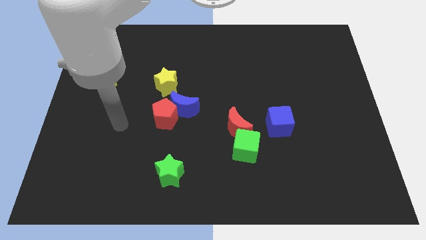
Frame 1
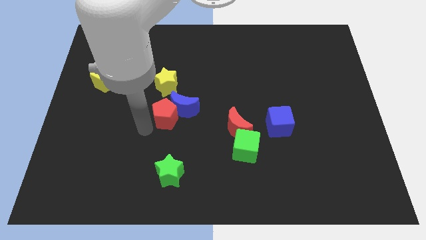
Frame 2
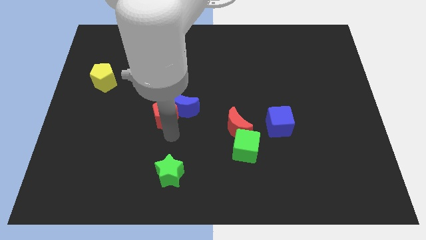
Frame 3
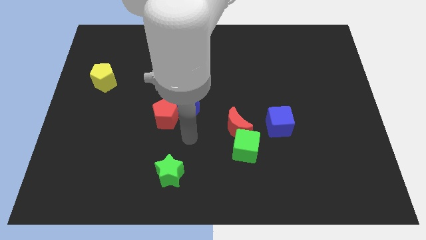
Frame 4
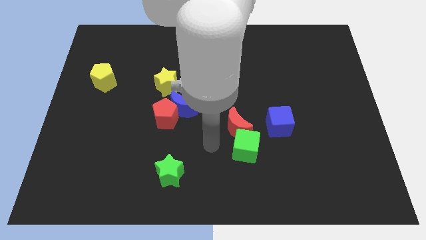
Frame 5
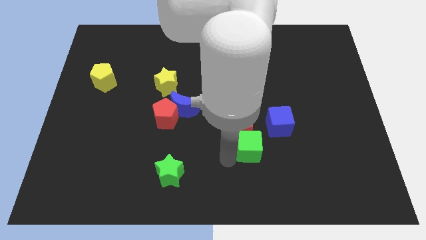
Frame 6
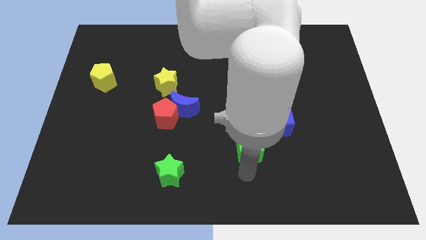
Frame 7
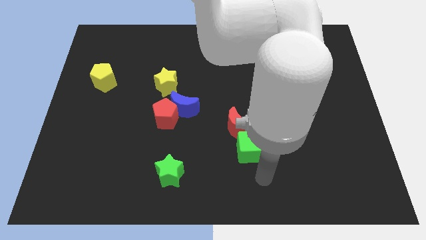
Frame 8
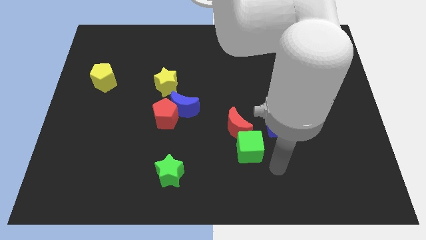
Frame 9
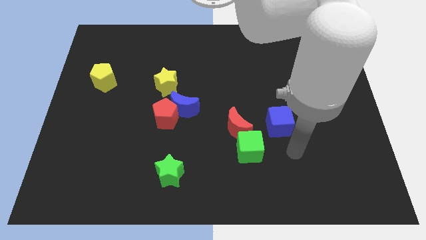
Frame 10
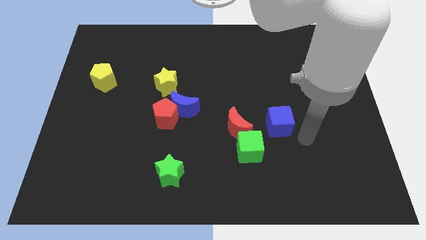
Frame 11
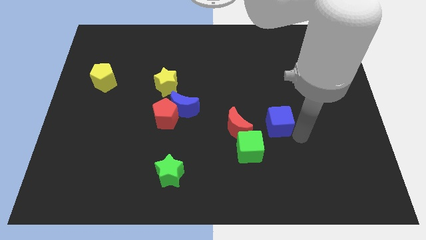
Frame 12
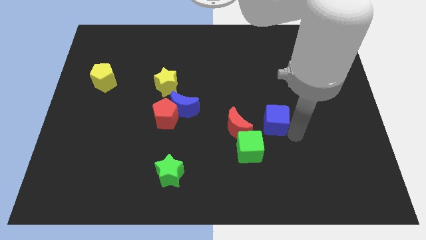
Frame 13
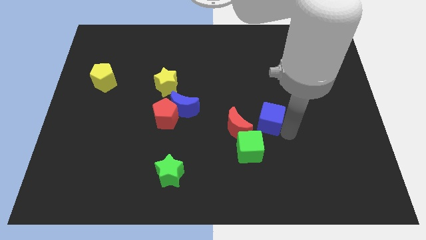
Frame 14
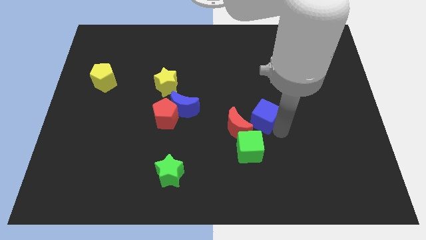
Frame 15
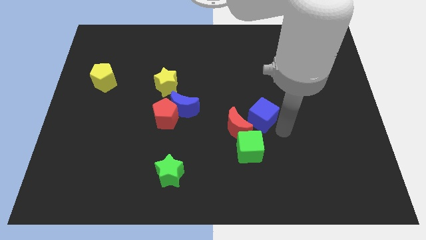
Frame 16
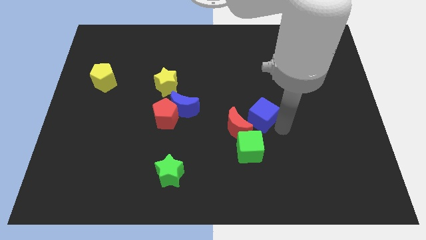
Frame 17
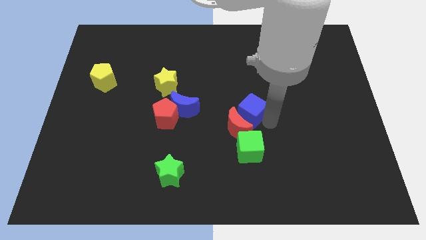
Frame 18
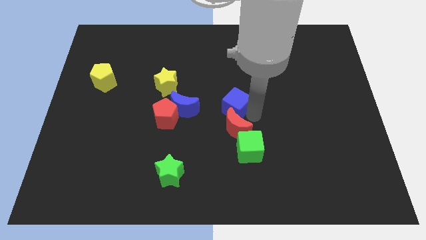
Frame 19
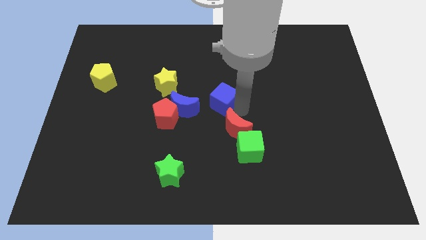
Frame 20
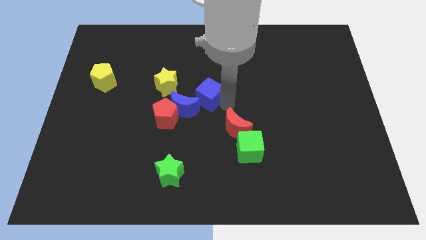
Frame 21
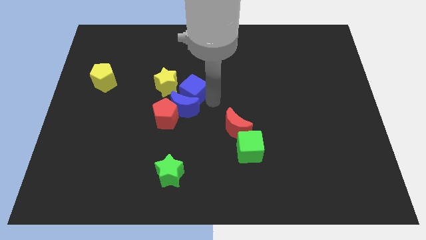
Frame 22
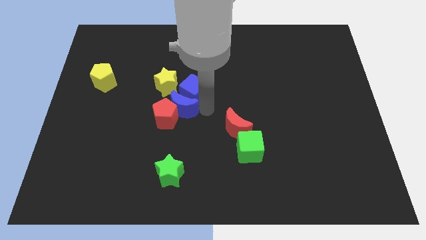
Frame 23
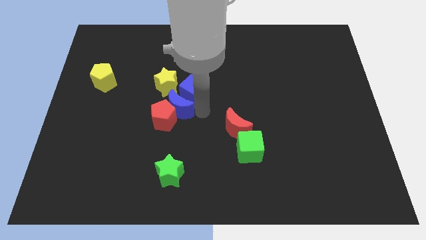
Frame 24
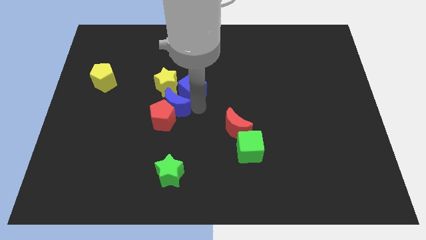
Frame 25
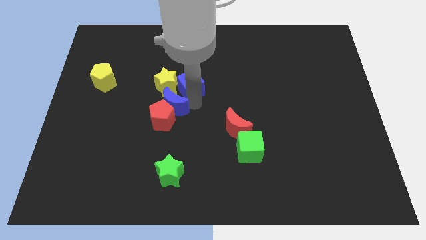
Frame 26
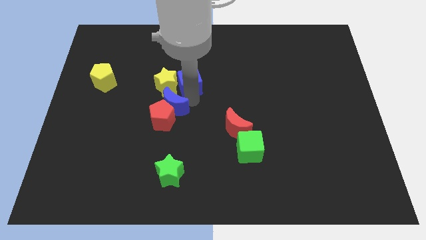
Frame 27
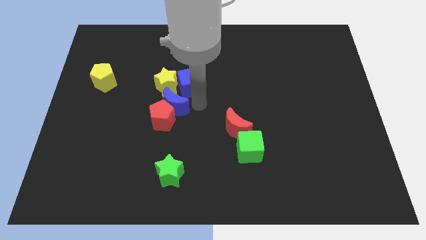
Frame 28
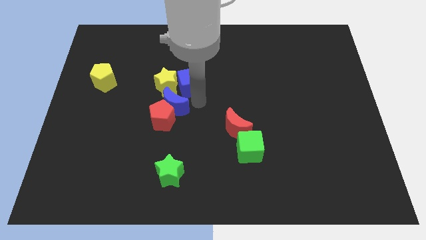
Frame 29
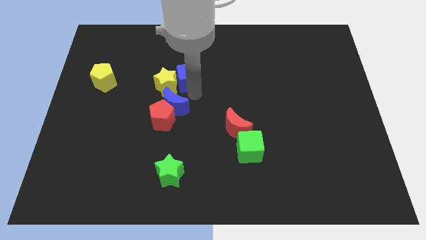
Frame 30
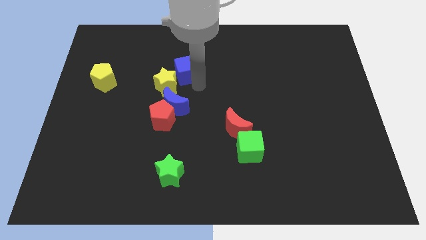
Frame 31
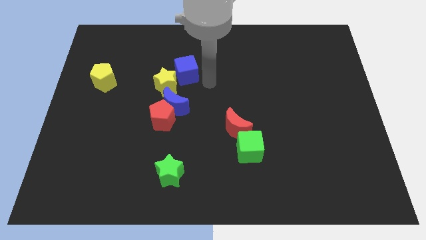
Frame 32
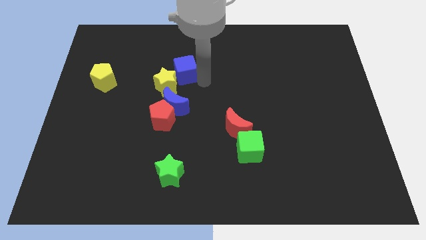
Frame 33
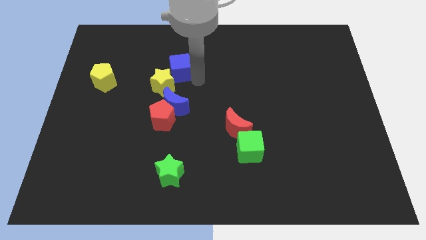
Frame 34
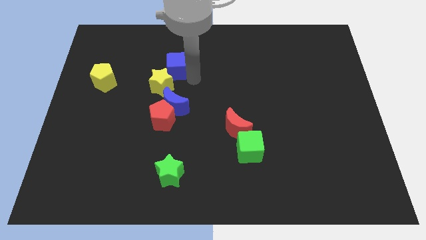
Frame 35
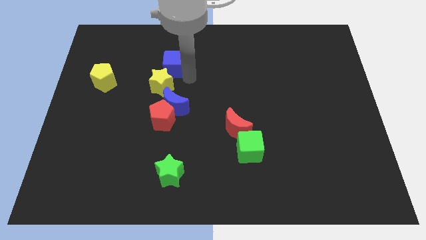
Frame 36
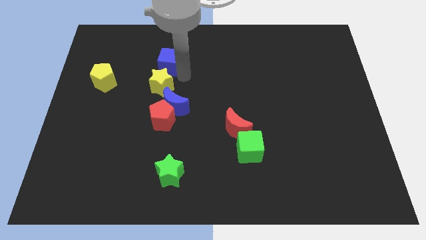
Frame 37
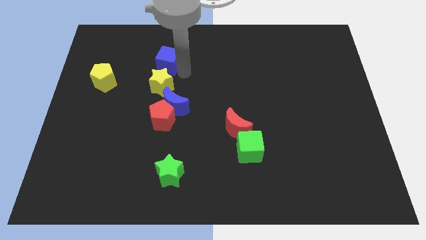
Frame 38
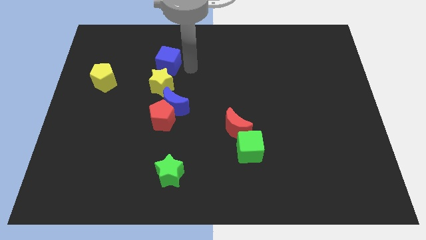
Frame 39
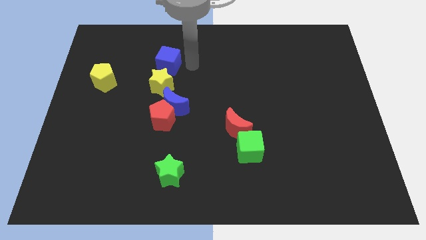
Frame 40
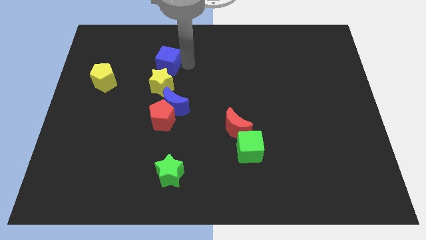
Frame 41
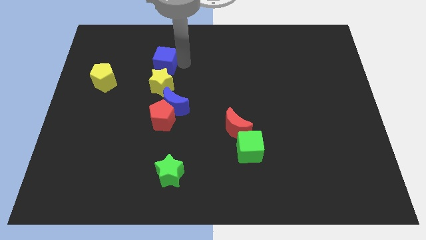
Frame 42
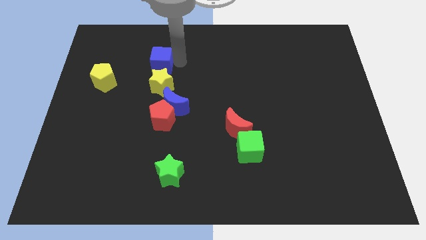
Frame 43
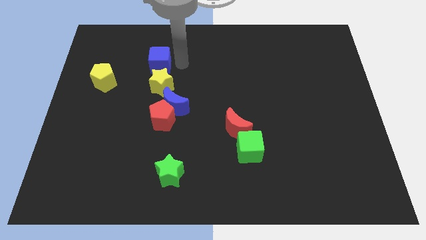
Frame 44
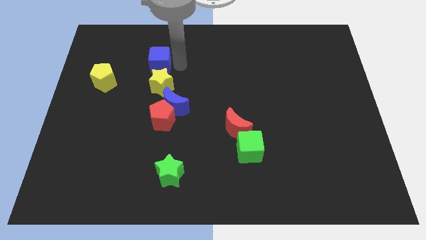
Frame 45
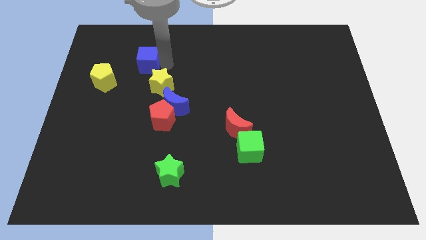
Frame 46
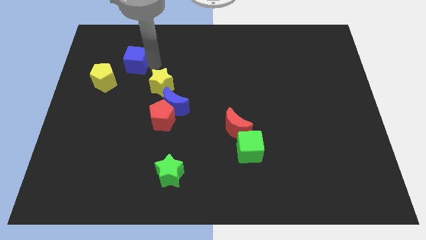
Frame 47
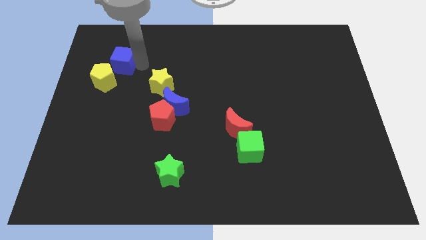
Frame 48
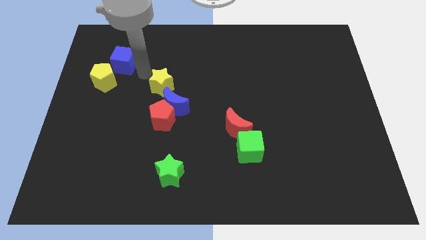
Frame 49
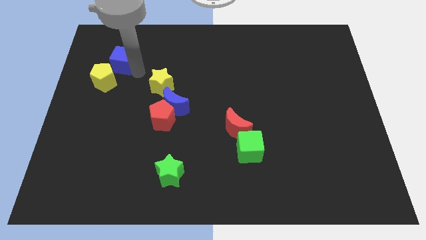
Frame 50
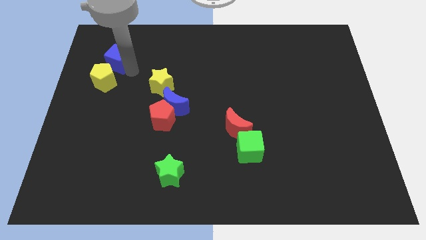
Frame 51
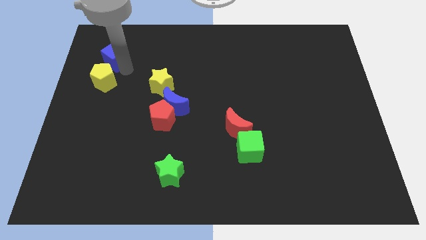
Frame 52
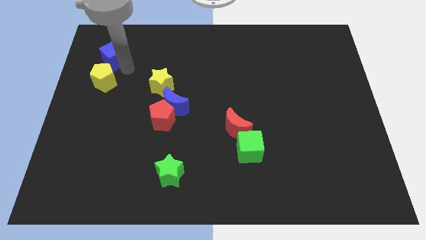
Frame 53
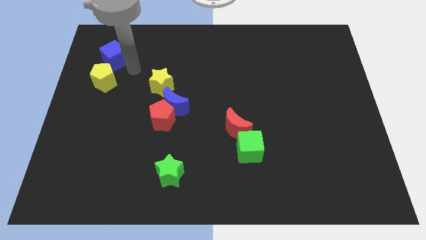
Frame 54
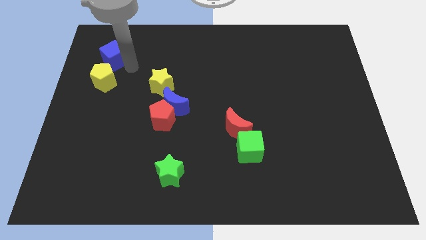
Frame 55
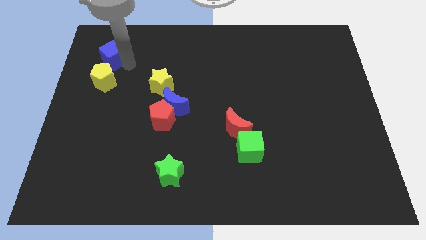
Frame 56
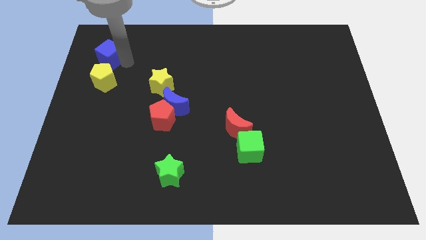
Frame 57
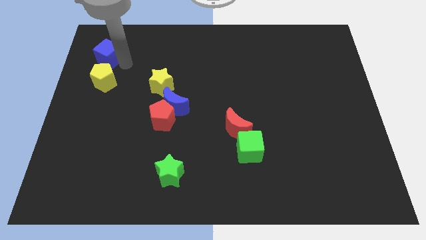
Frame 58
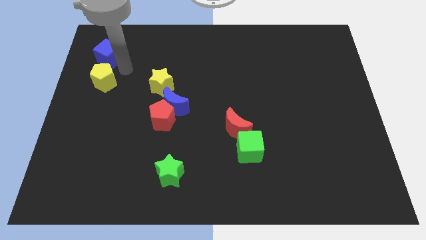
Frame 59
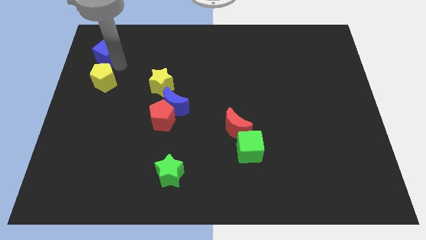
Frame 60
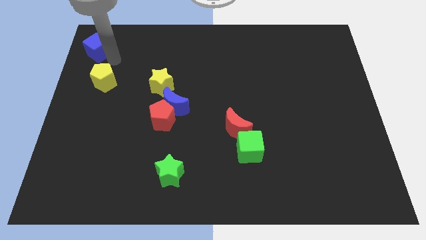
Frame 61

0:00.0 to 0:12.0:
put the blue cube to the top left
